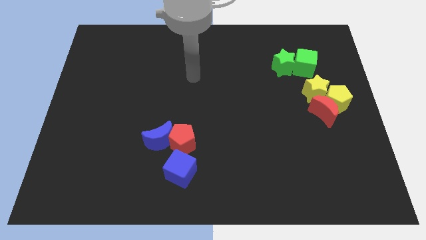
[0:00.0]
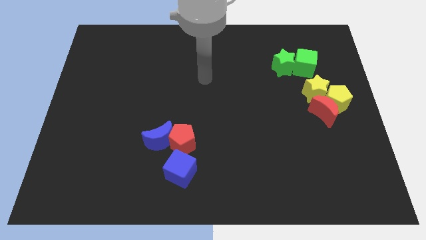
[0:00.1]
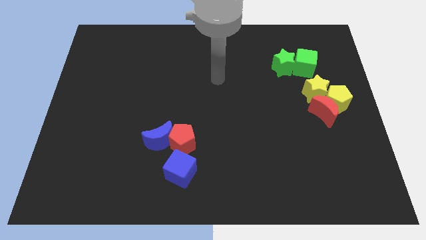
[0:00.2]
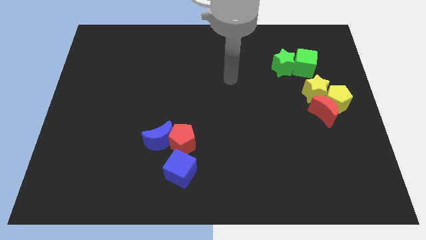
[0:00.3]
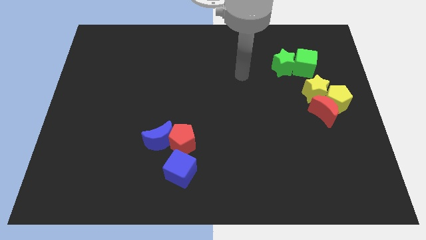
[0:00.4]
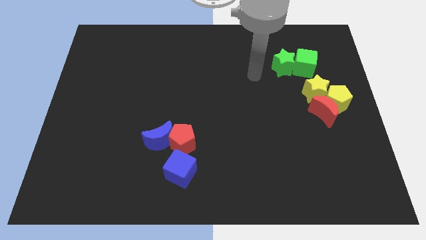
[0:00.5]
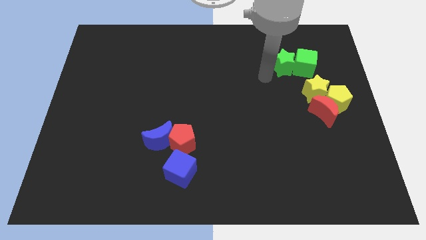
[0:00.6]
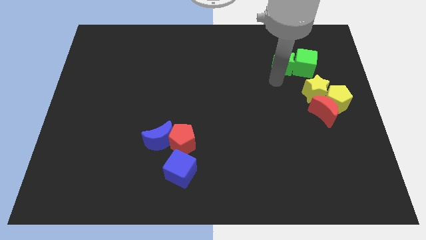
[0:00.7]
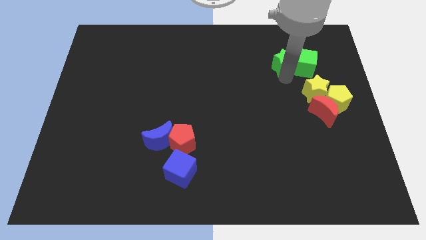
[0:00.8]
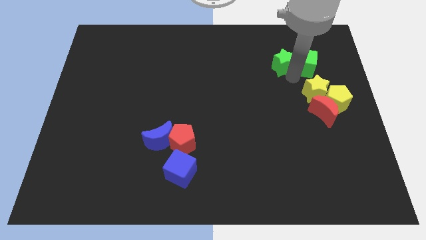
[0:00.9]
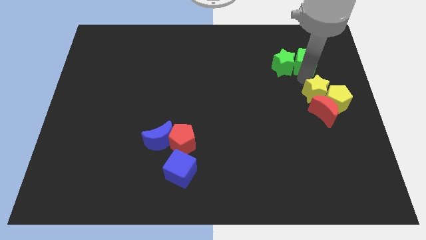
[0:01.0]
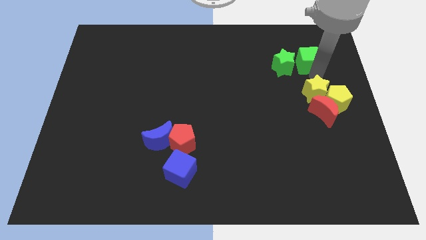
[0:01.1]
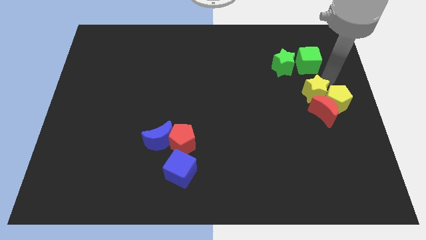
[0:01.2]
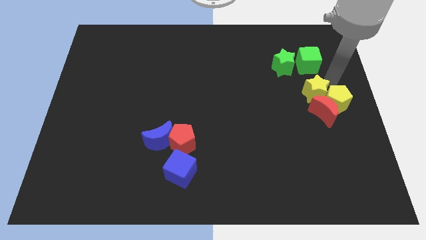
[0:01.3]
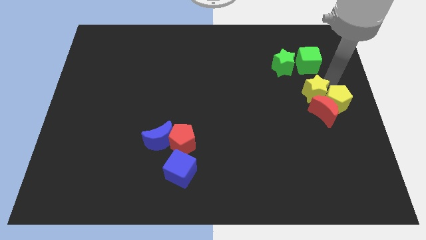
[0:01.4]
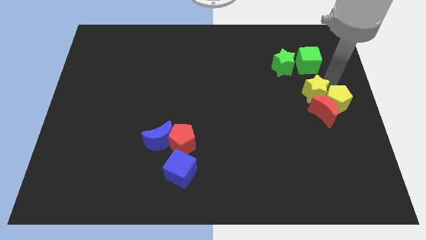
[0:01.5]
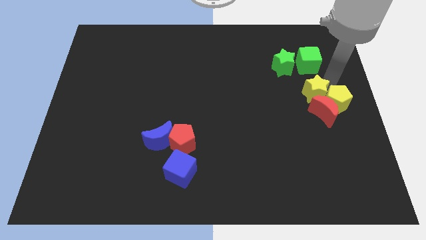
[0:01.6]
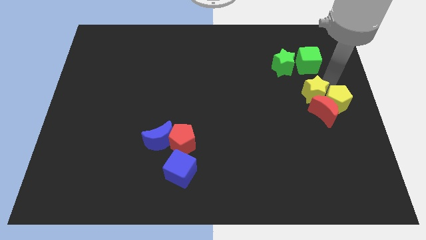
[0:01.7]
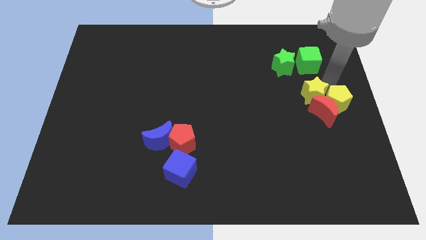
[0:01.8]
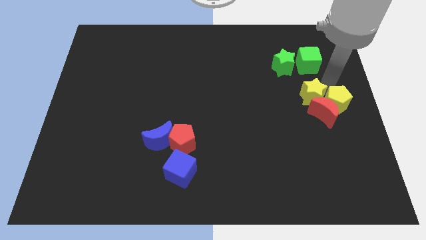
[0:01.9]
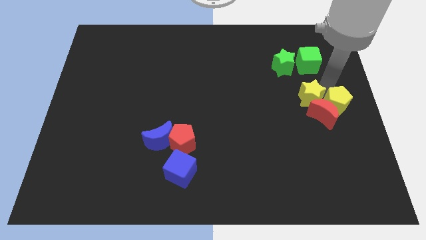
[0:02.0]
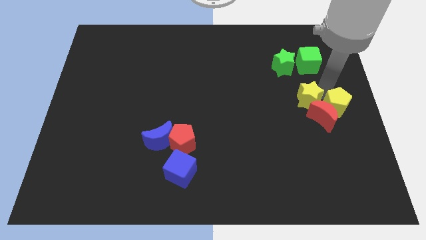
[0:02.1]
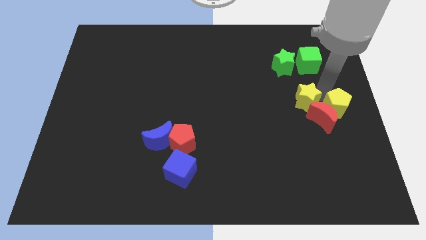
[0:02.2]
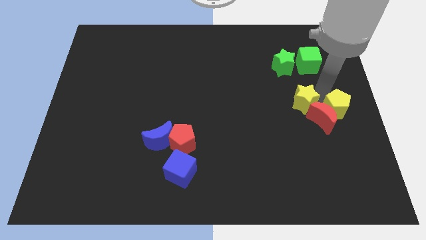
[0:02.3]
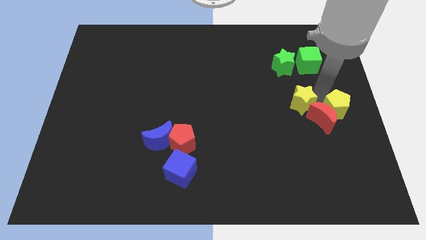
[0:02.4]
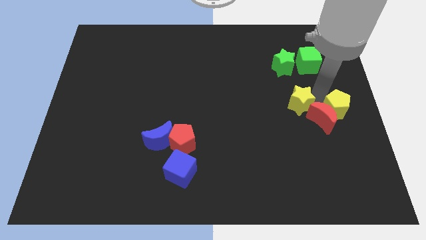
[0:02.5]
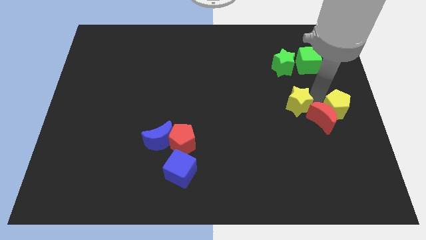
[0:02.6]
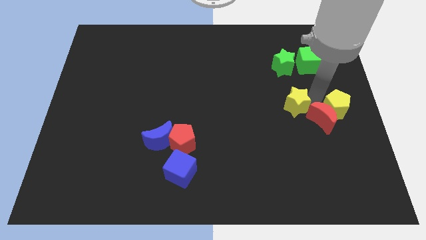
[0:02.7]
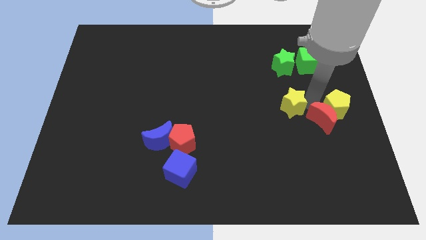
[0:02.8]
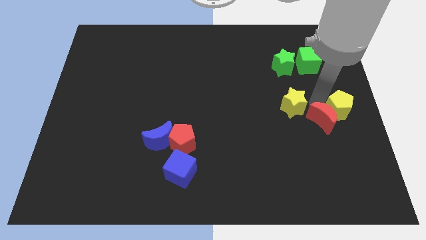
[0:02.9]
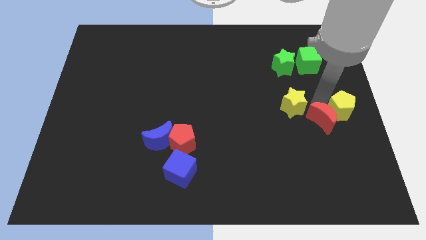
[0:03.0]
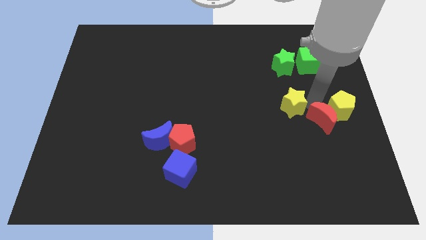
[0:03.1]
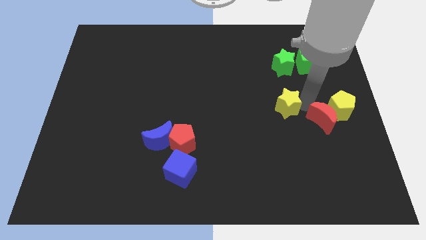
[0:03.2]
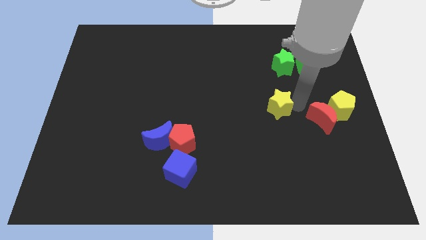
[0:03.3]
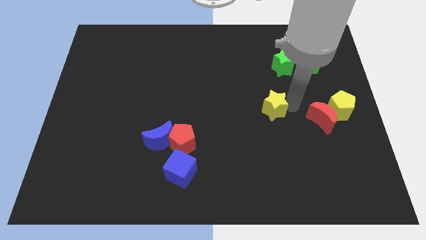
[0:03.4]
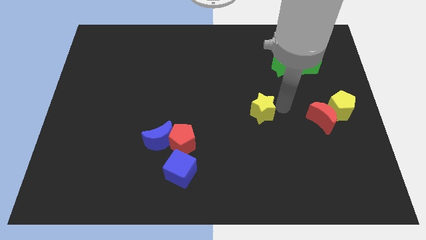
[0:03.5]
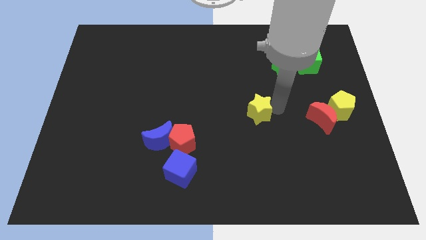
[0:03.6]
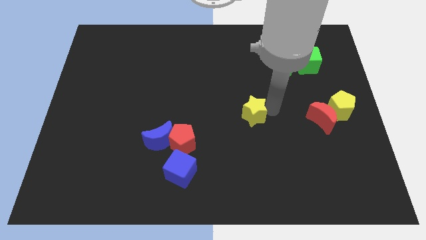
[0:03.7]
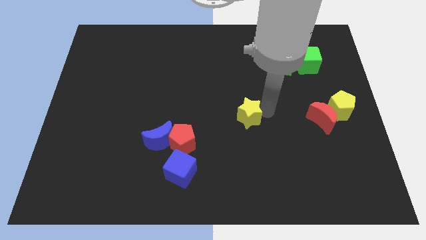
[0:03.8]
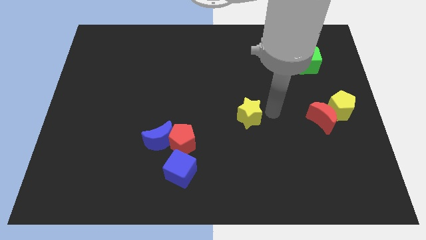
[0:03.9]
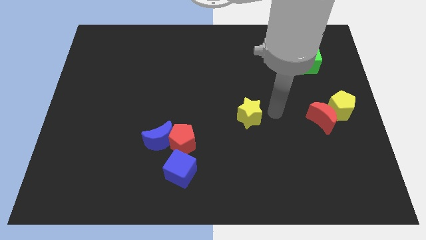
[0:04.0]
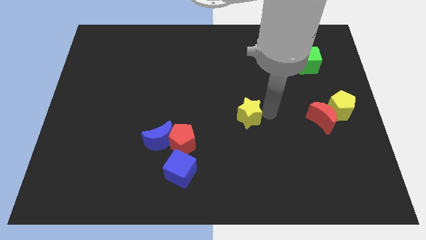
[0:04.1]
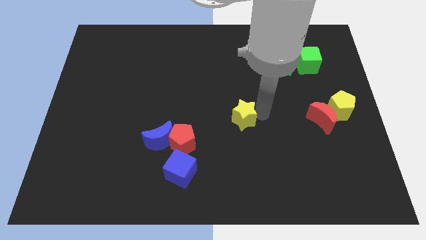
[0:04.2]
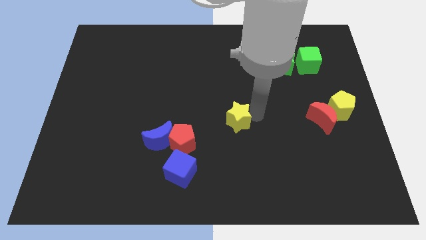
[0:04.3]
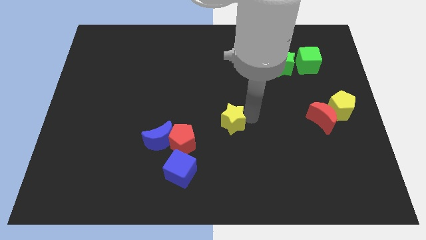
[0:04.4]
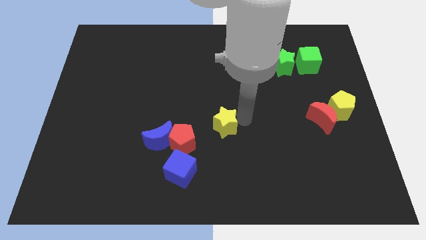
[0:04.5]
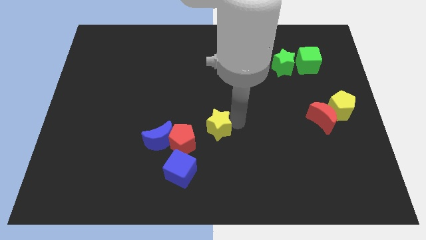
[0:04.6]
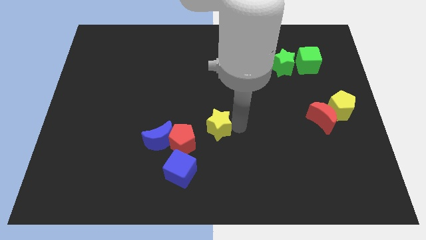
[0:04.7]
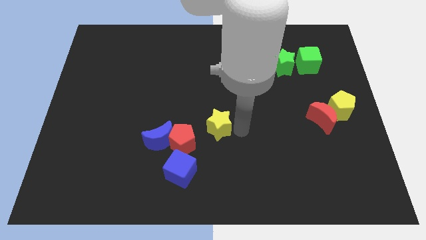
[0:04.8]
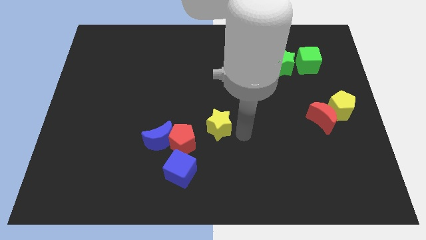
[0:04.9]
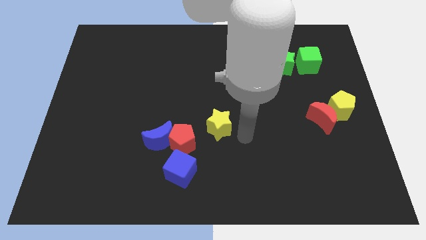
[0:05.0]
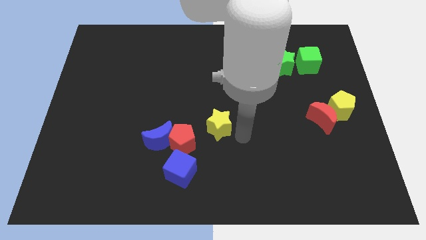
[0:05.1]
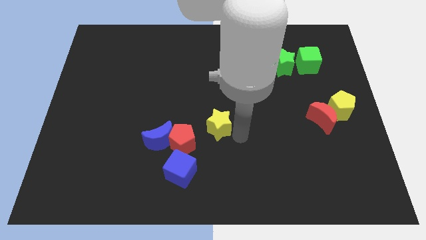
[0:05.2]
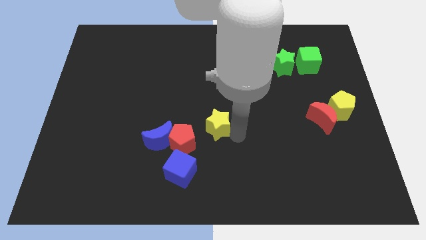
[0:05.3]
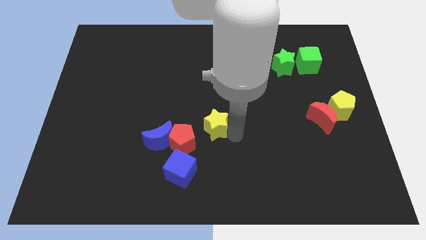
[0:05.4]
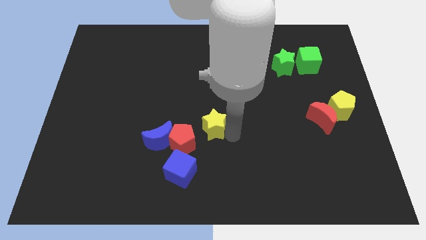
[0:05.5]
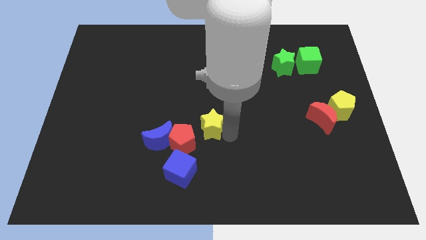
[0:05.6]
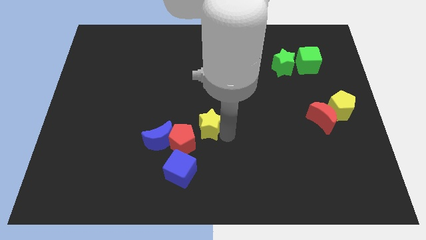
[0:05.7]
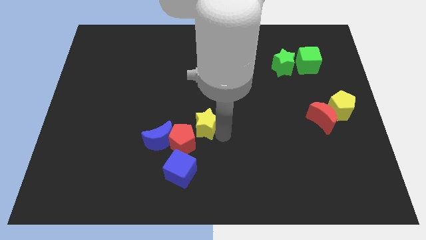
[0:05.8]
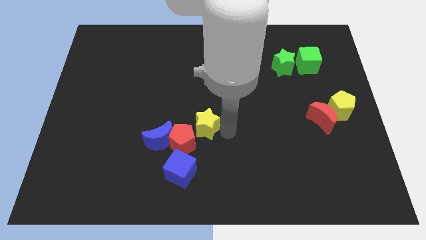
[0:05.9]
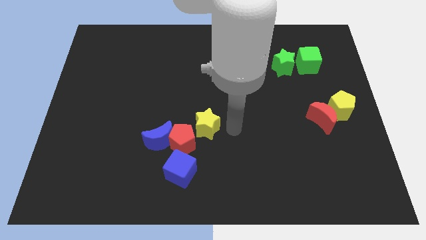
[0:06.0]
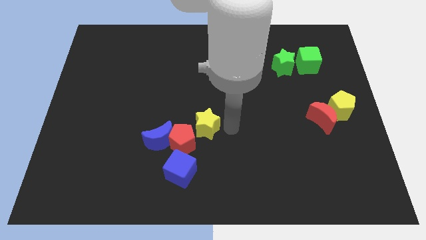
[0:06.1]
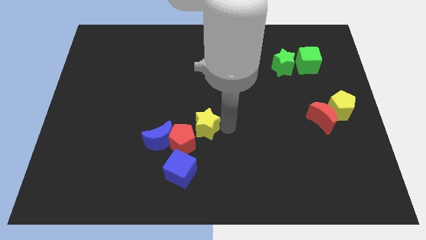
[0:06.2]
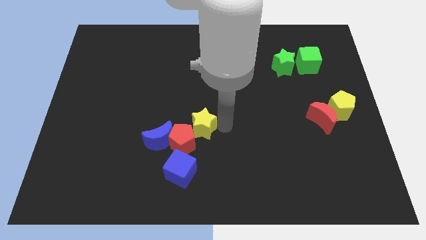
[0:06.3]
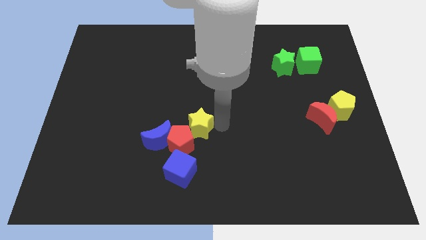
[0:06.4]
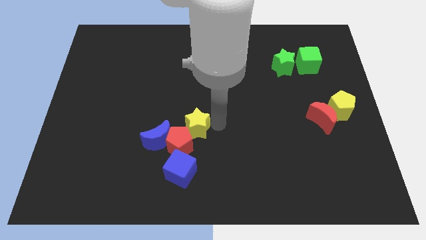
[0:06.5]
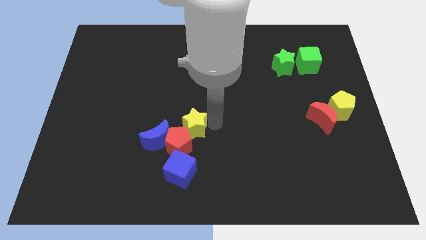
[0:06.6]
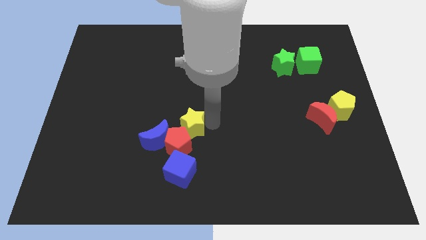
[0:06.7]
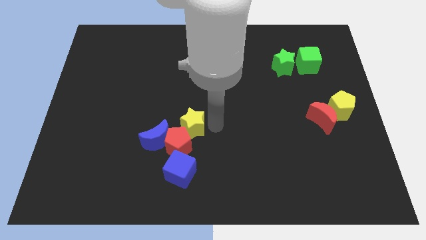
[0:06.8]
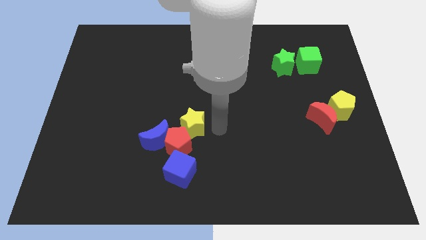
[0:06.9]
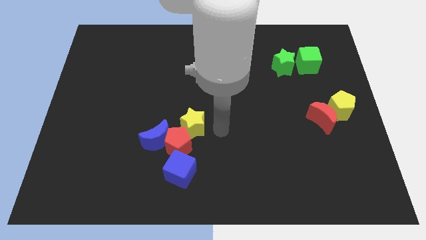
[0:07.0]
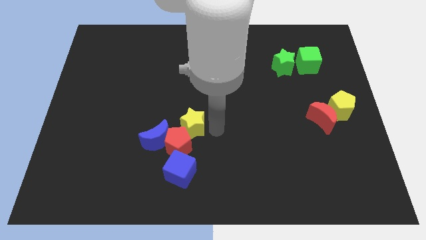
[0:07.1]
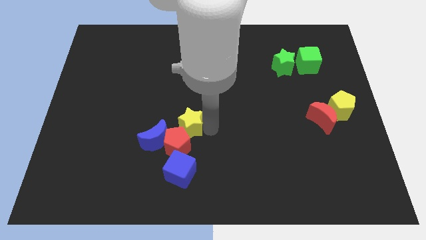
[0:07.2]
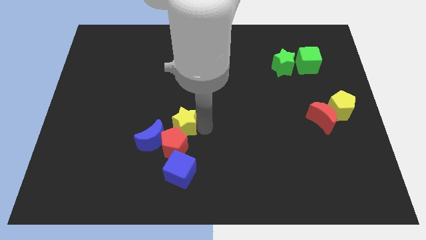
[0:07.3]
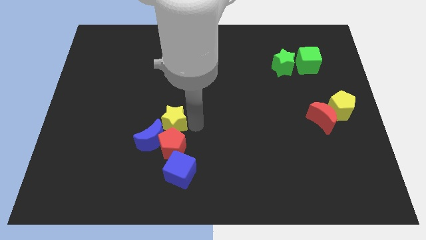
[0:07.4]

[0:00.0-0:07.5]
move the yellow star to the blue moon
